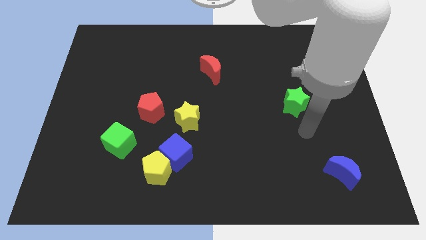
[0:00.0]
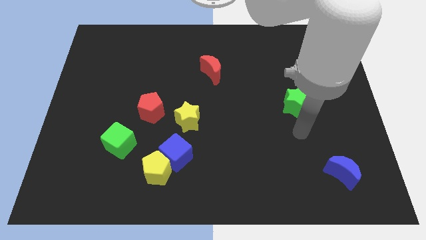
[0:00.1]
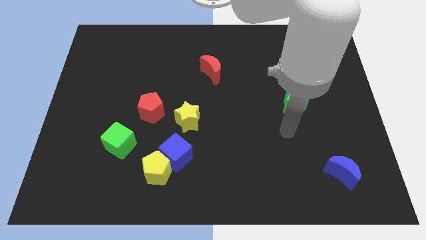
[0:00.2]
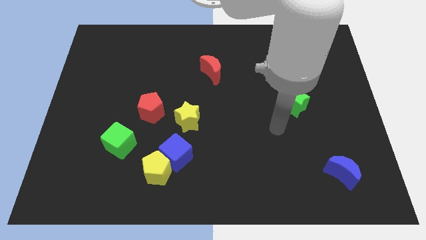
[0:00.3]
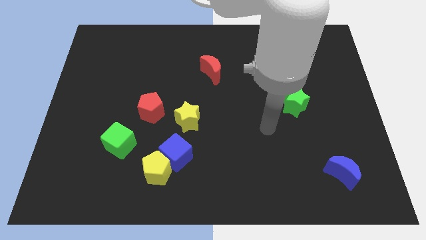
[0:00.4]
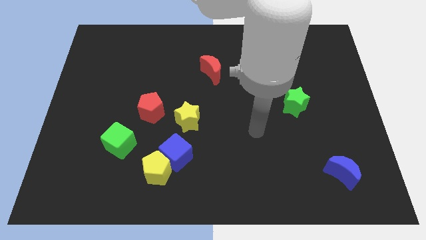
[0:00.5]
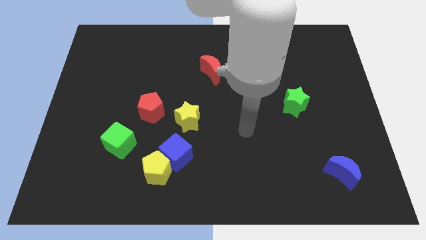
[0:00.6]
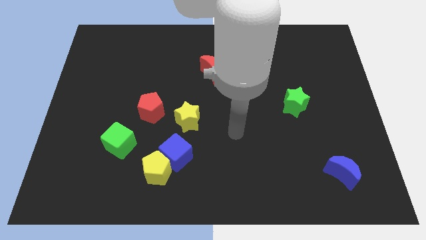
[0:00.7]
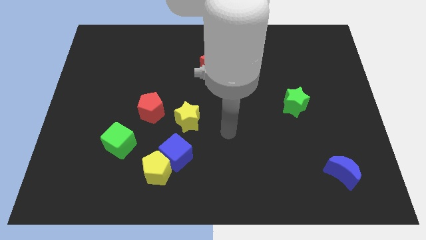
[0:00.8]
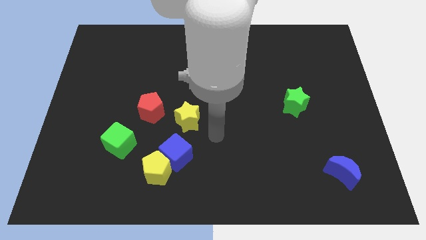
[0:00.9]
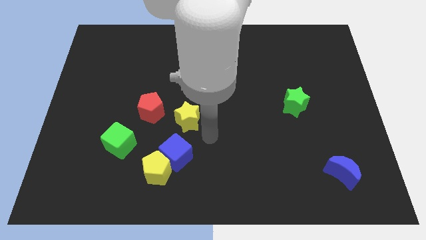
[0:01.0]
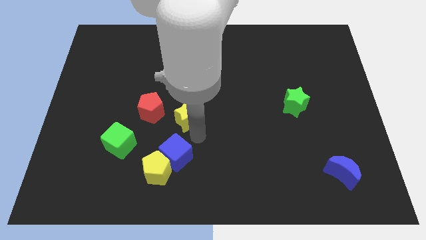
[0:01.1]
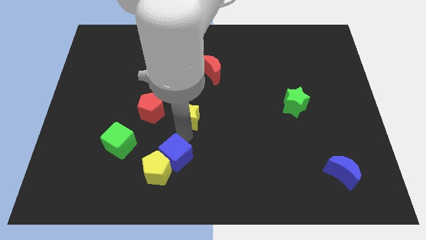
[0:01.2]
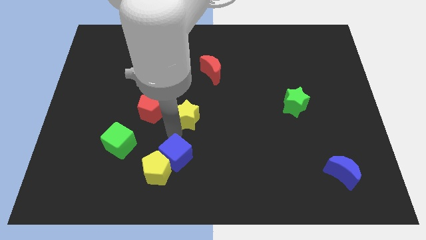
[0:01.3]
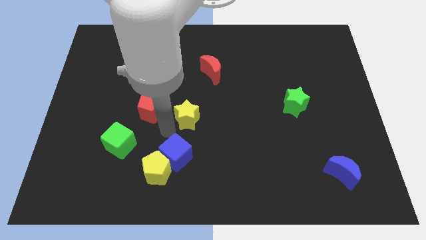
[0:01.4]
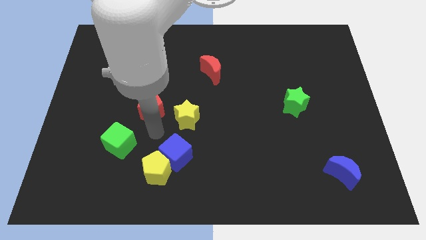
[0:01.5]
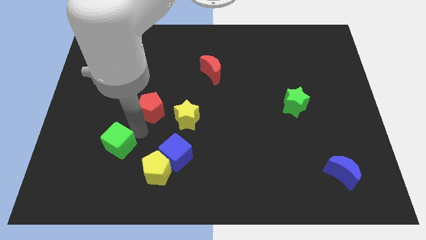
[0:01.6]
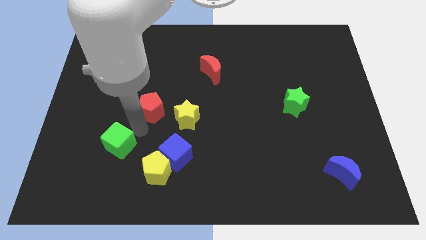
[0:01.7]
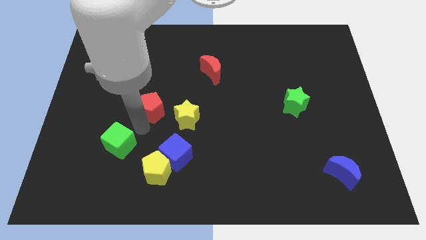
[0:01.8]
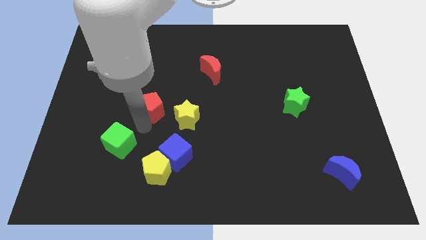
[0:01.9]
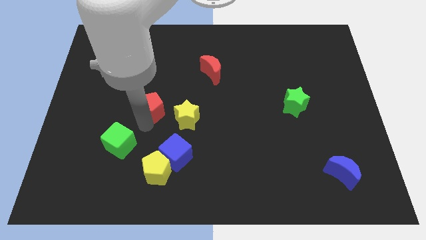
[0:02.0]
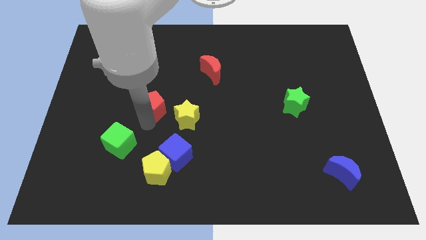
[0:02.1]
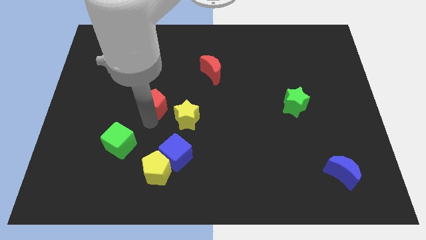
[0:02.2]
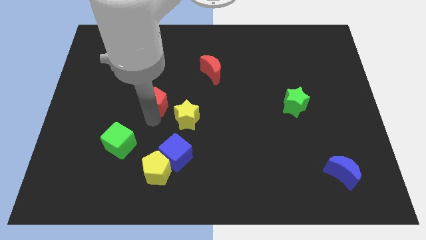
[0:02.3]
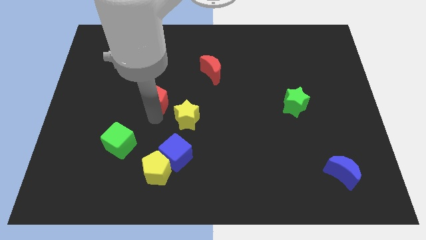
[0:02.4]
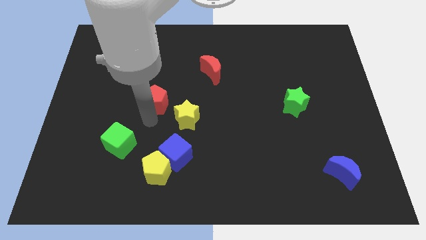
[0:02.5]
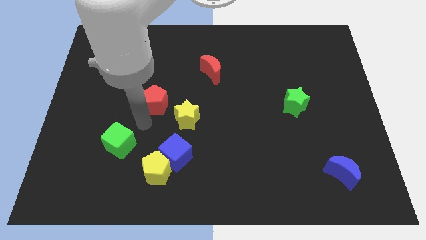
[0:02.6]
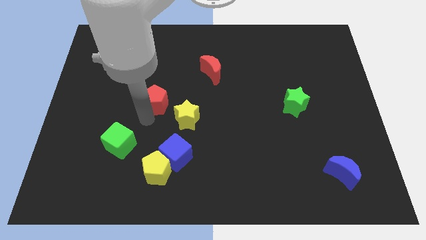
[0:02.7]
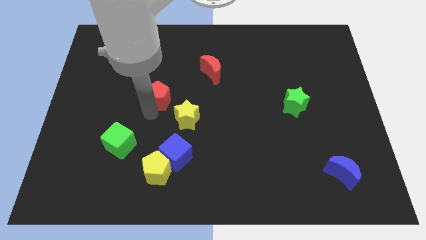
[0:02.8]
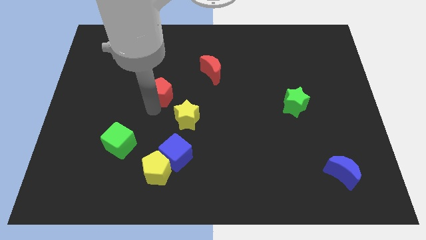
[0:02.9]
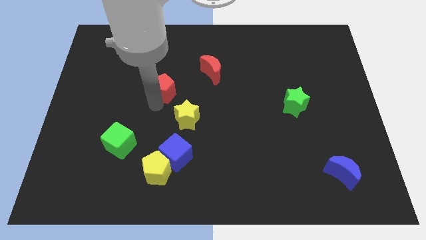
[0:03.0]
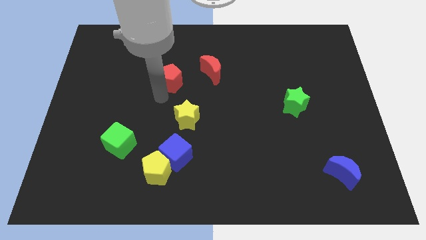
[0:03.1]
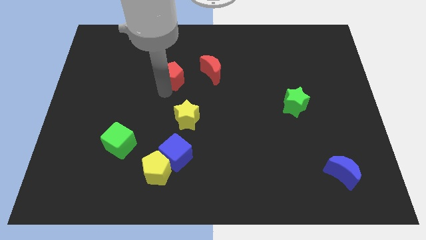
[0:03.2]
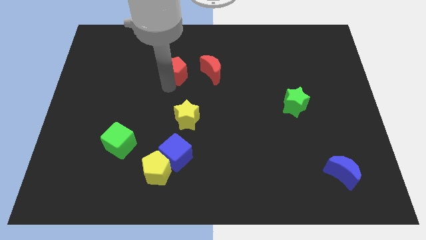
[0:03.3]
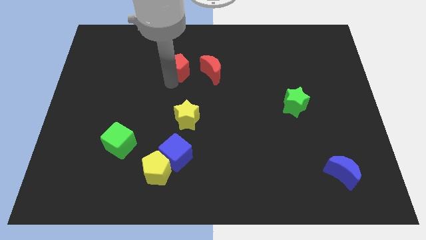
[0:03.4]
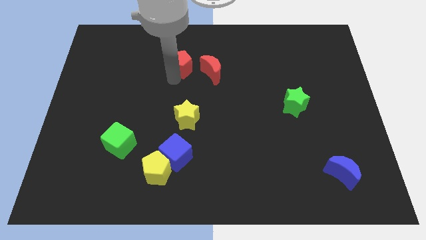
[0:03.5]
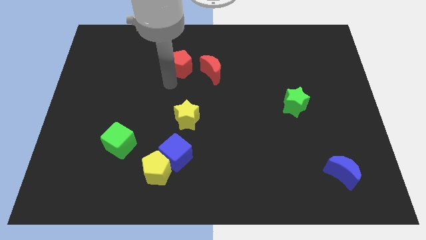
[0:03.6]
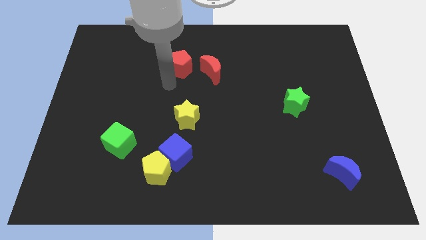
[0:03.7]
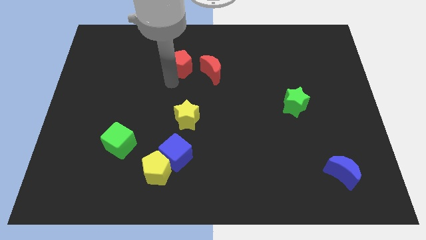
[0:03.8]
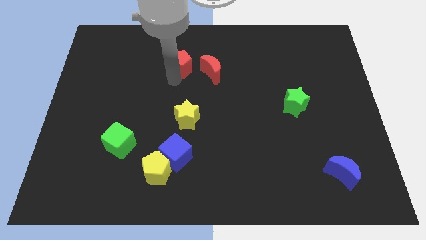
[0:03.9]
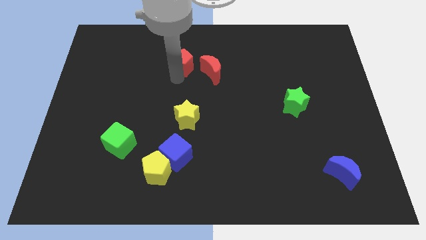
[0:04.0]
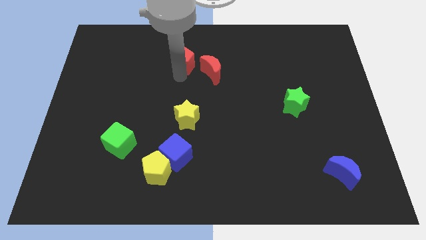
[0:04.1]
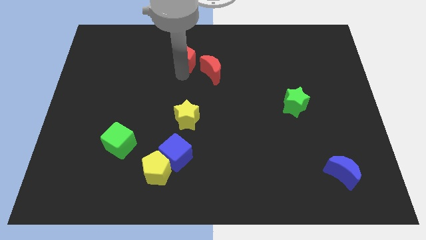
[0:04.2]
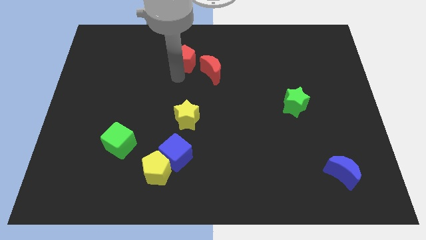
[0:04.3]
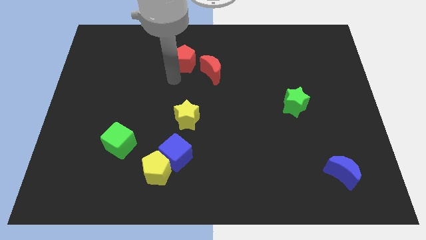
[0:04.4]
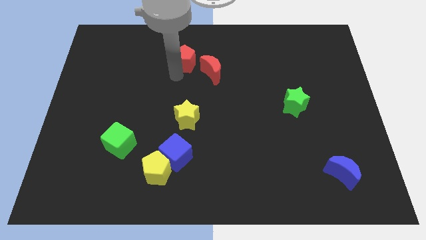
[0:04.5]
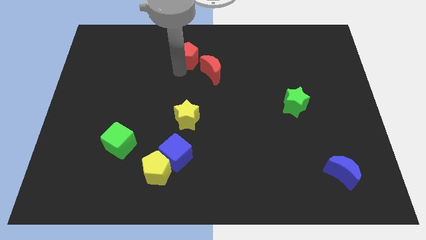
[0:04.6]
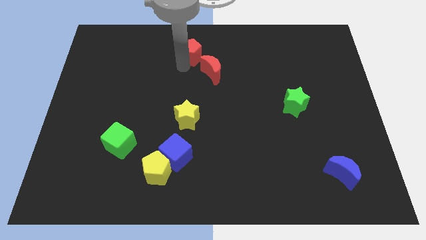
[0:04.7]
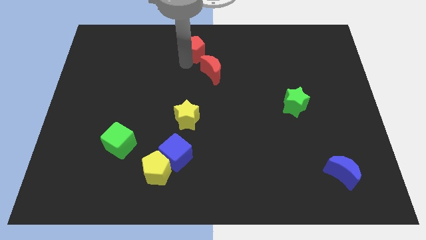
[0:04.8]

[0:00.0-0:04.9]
slide the red pentagon to the top

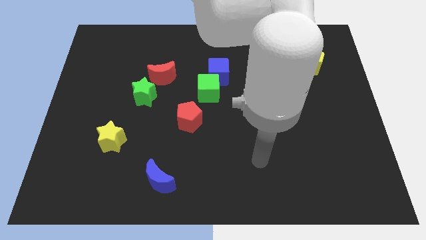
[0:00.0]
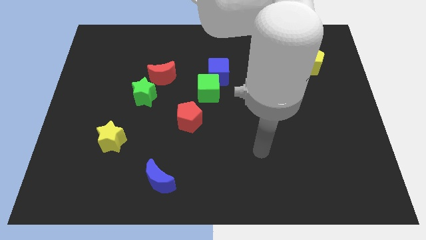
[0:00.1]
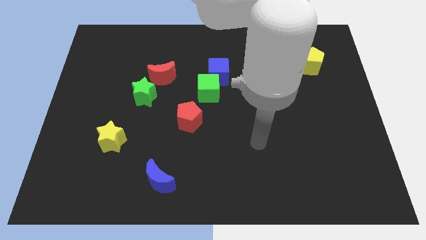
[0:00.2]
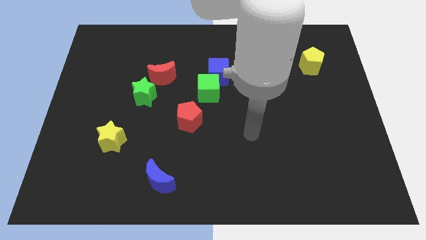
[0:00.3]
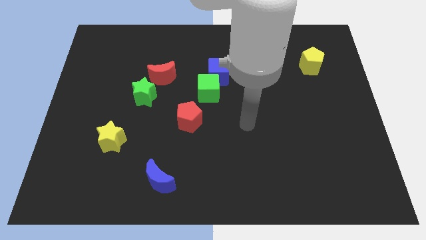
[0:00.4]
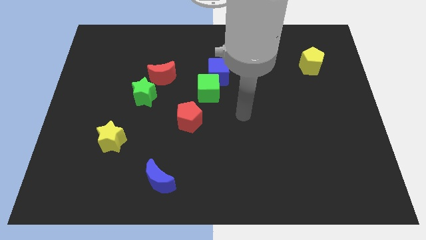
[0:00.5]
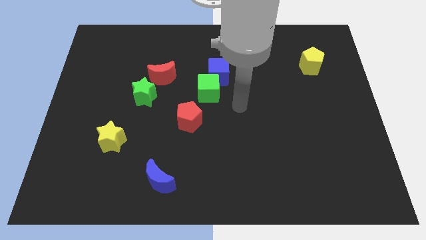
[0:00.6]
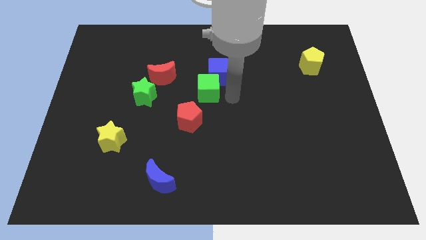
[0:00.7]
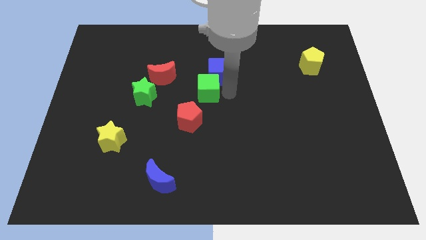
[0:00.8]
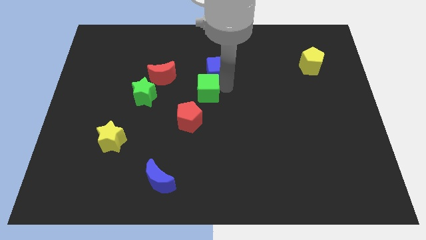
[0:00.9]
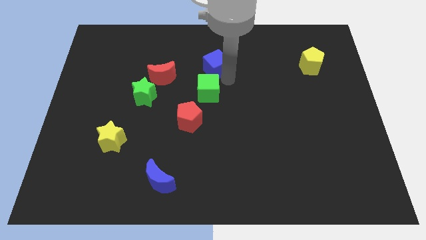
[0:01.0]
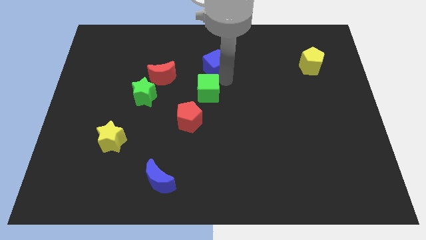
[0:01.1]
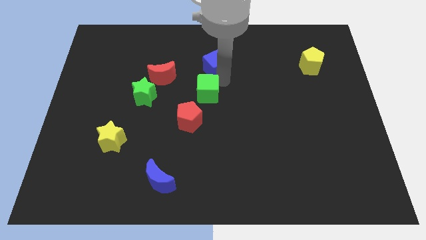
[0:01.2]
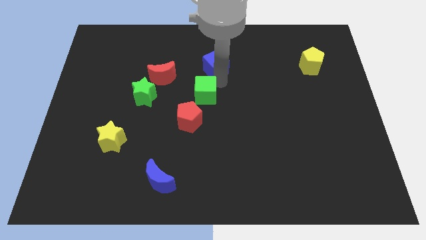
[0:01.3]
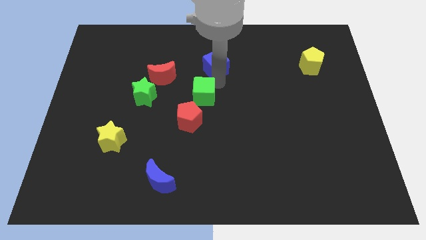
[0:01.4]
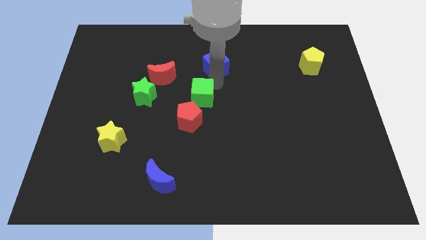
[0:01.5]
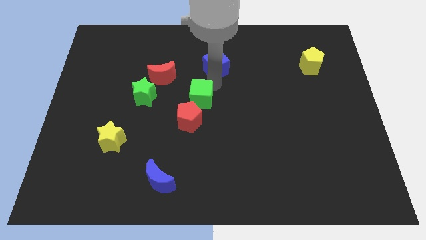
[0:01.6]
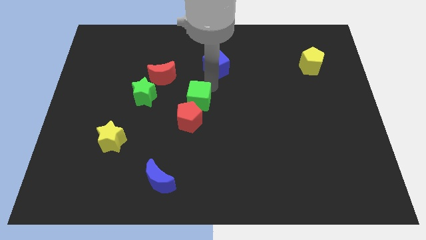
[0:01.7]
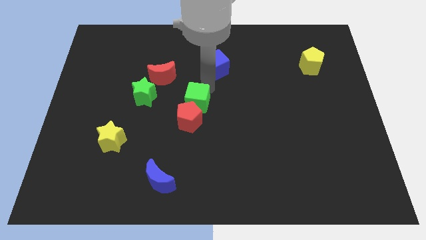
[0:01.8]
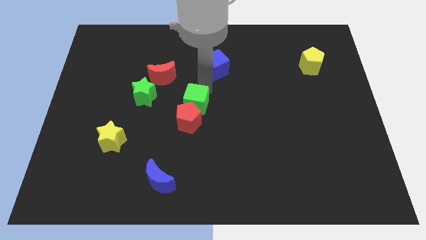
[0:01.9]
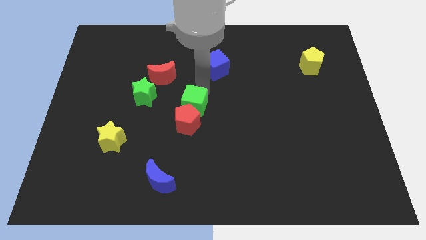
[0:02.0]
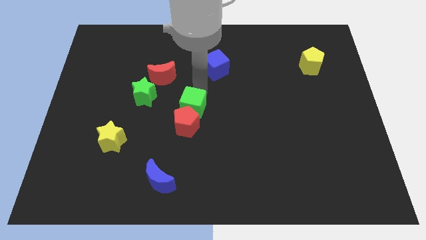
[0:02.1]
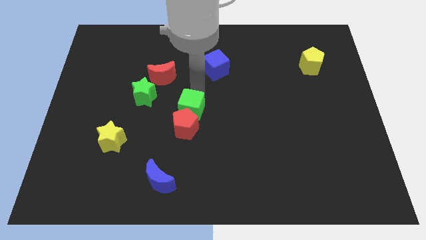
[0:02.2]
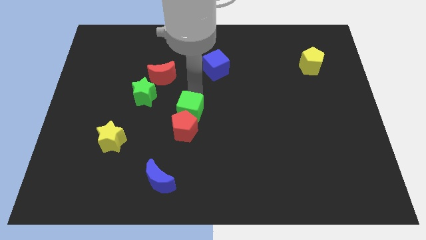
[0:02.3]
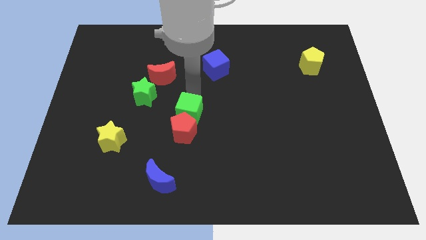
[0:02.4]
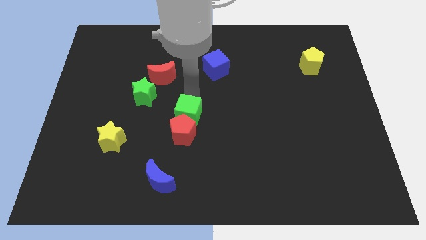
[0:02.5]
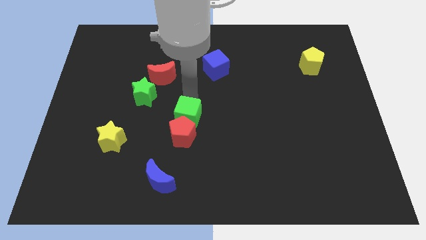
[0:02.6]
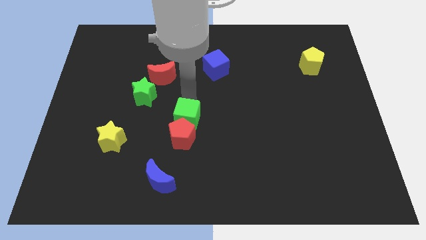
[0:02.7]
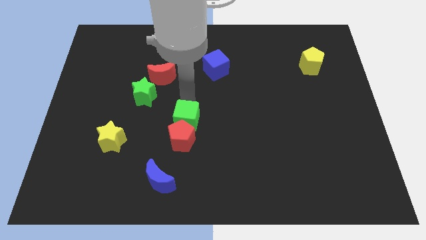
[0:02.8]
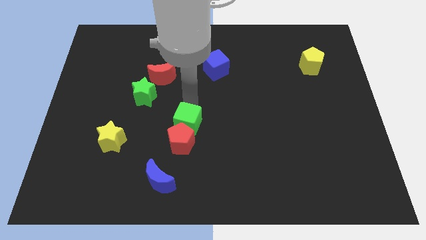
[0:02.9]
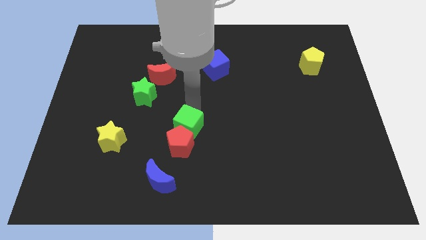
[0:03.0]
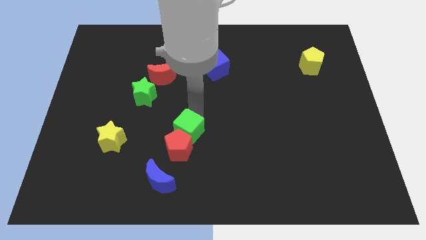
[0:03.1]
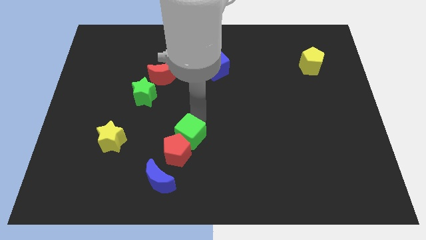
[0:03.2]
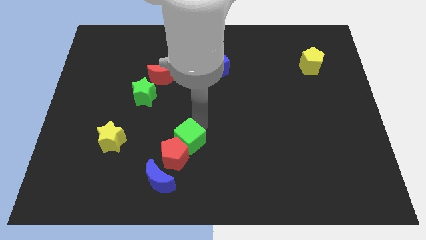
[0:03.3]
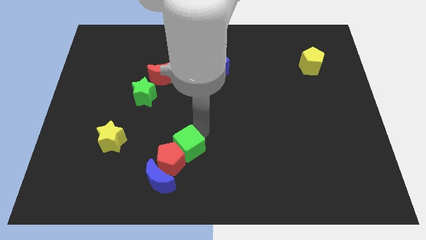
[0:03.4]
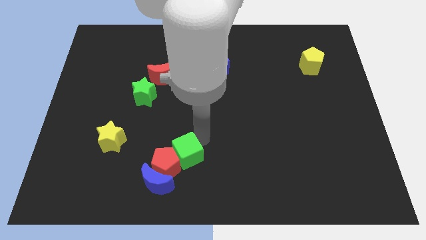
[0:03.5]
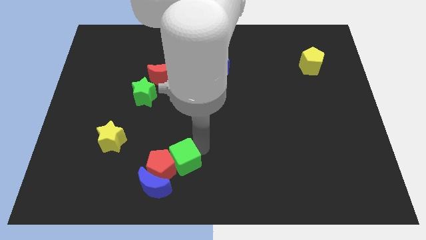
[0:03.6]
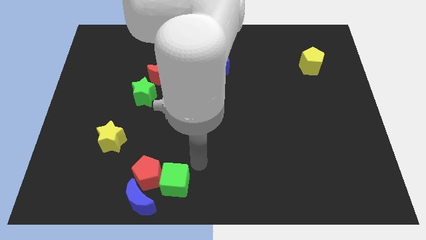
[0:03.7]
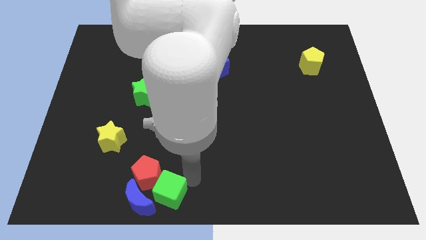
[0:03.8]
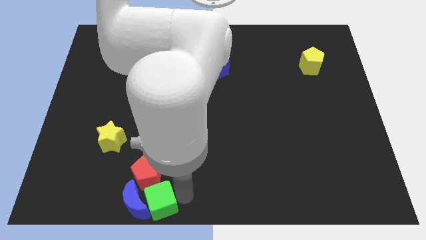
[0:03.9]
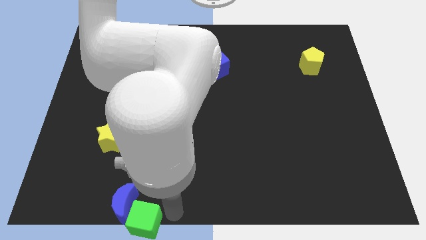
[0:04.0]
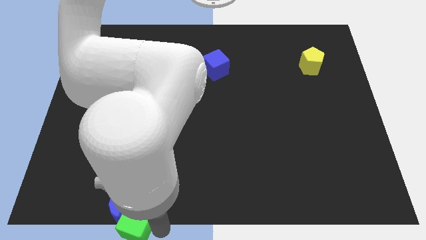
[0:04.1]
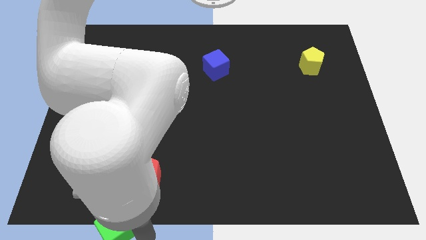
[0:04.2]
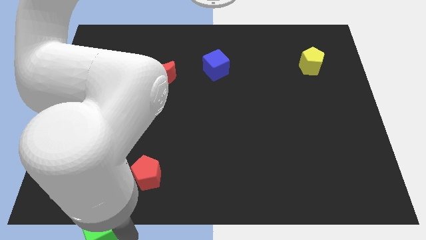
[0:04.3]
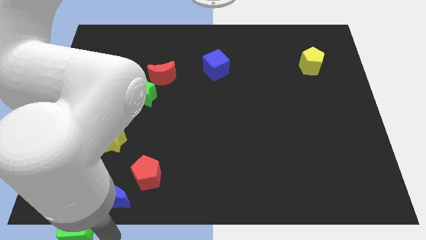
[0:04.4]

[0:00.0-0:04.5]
put the green cube to the lower left corner
